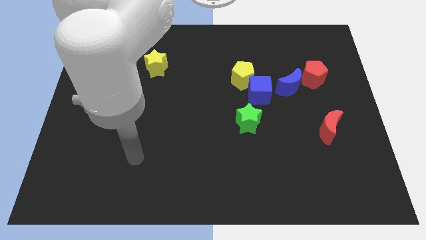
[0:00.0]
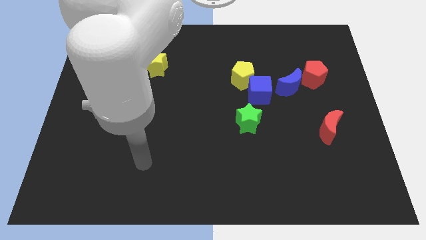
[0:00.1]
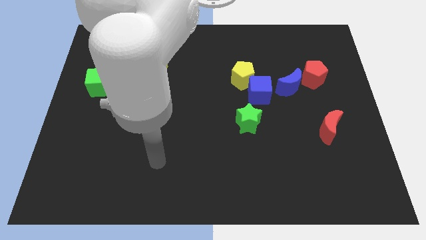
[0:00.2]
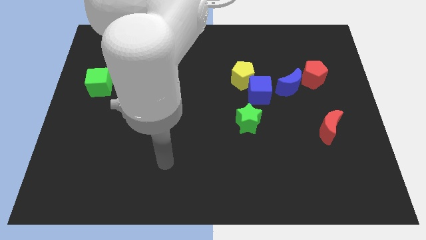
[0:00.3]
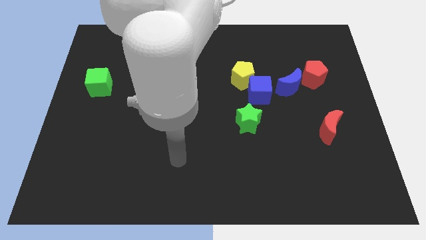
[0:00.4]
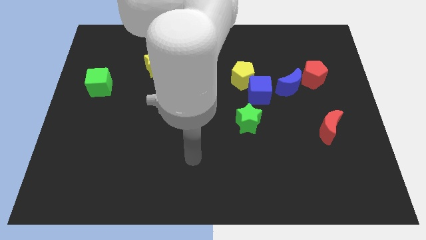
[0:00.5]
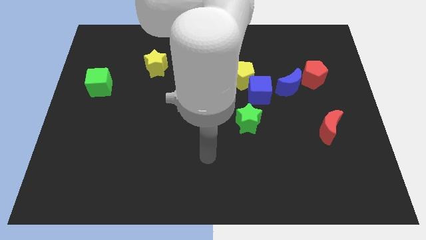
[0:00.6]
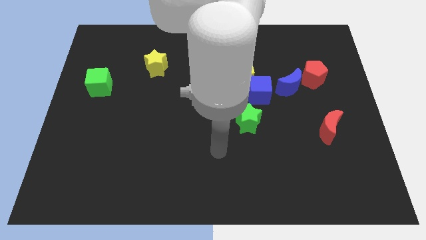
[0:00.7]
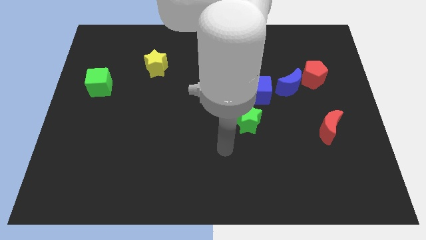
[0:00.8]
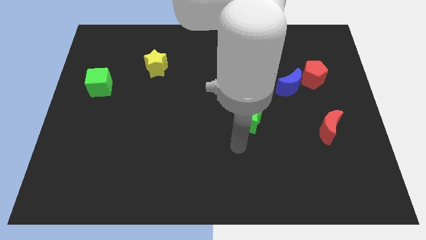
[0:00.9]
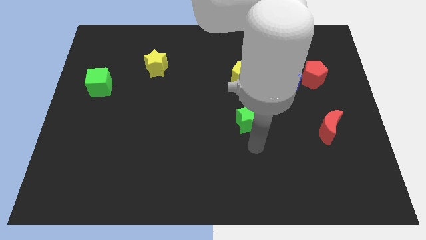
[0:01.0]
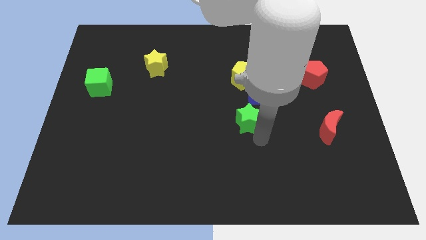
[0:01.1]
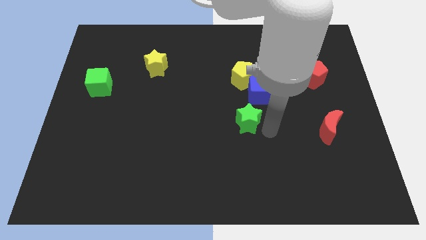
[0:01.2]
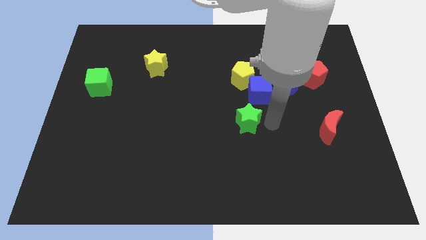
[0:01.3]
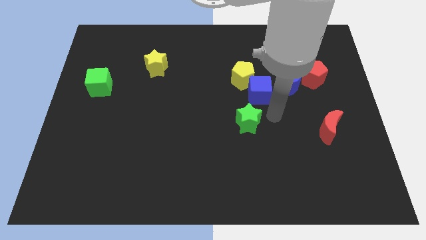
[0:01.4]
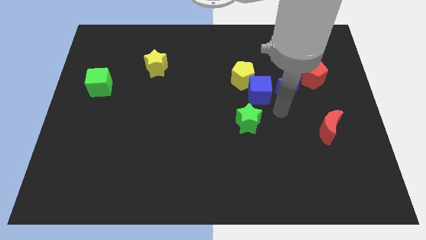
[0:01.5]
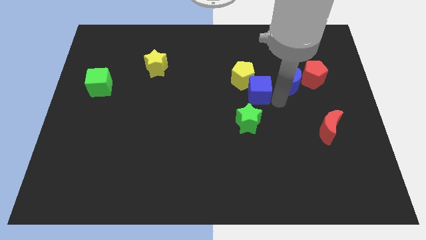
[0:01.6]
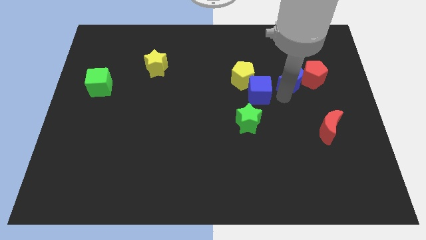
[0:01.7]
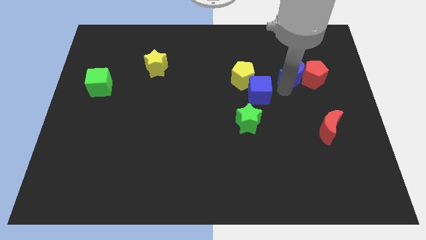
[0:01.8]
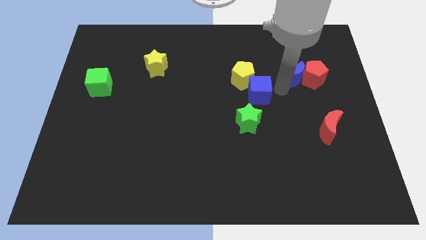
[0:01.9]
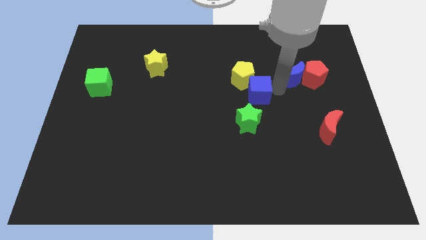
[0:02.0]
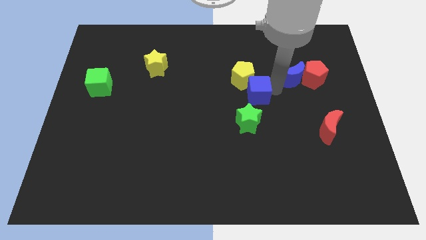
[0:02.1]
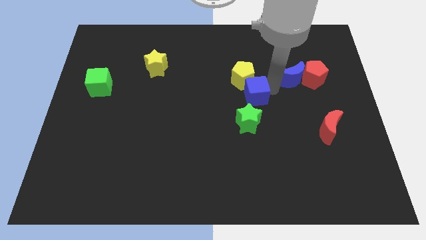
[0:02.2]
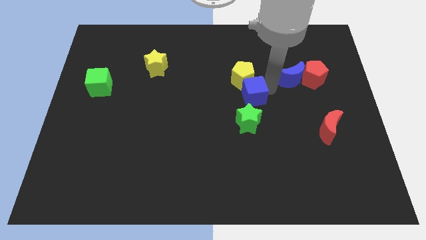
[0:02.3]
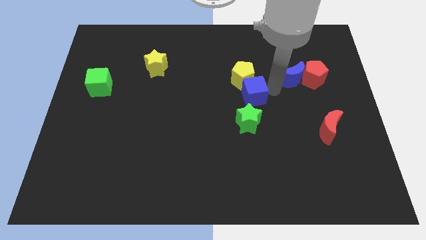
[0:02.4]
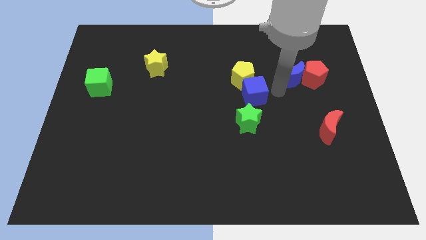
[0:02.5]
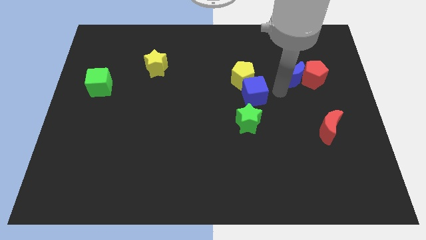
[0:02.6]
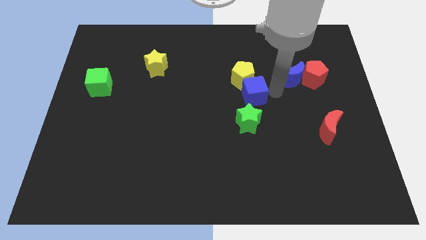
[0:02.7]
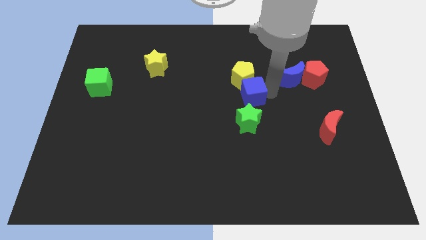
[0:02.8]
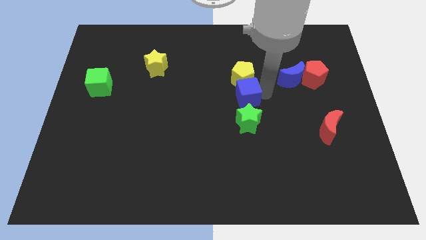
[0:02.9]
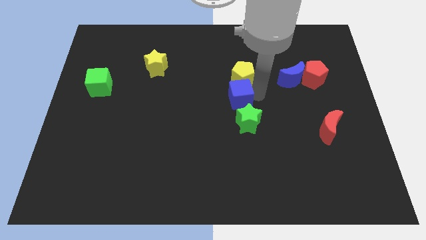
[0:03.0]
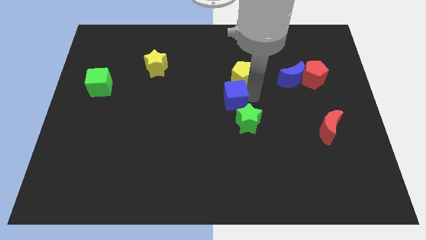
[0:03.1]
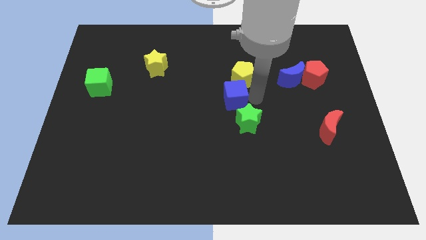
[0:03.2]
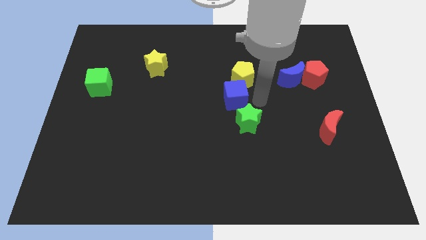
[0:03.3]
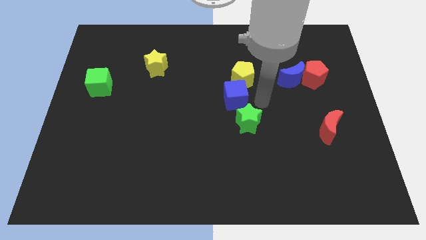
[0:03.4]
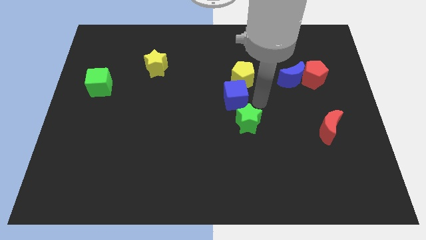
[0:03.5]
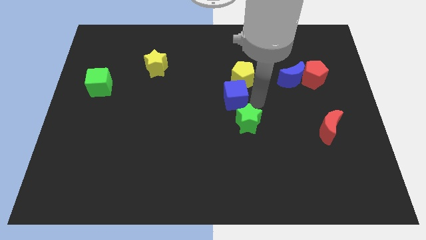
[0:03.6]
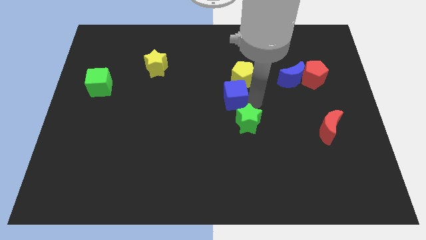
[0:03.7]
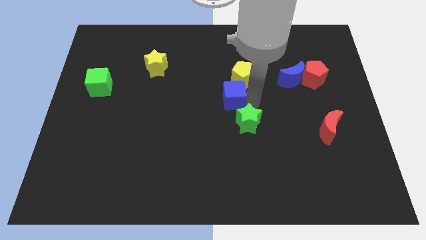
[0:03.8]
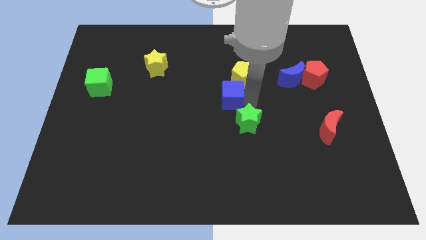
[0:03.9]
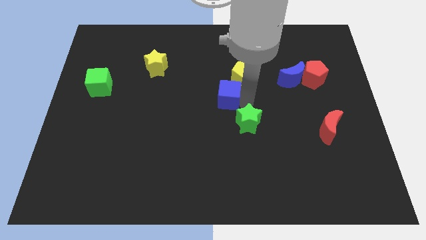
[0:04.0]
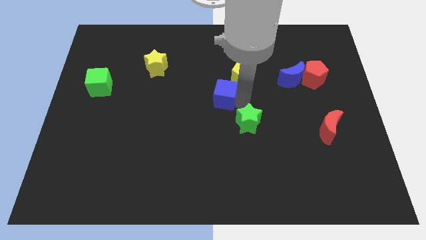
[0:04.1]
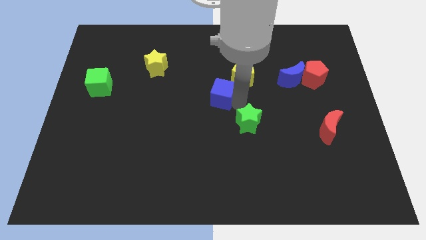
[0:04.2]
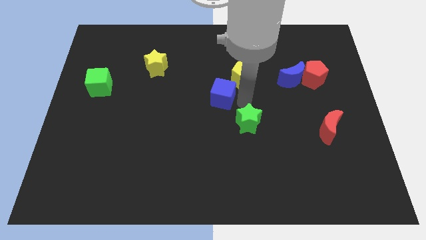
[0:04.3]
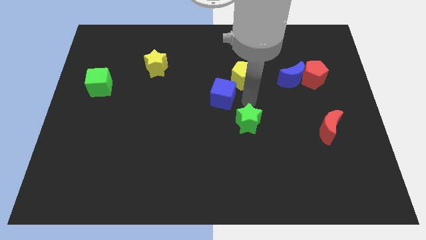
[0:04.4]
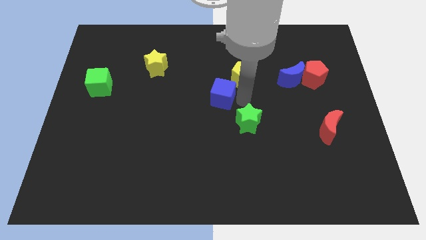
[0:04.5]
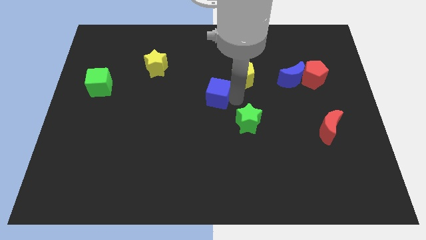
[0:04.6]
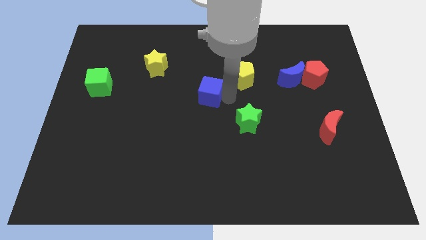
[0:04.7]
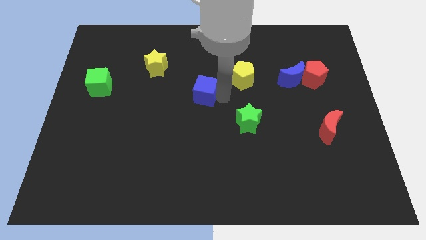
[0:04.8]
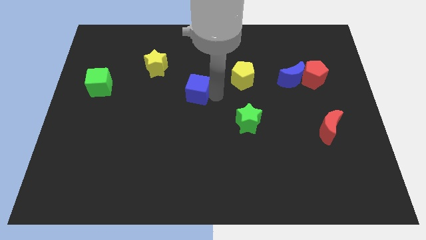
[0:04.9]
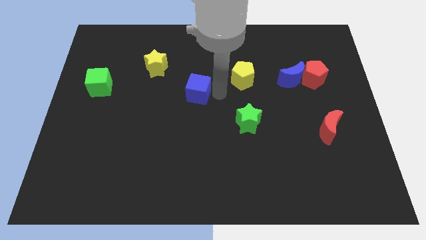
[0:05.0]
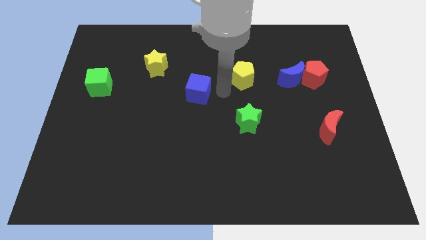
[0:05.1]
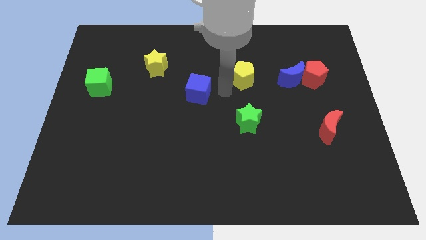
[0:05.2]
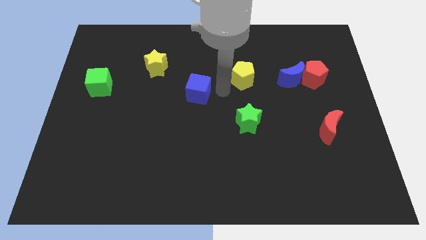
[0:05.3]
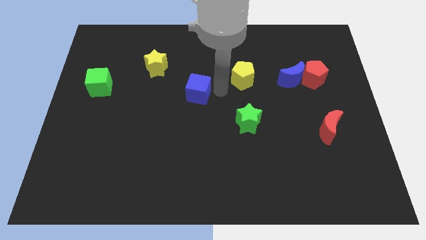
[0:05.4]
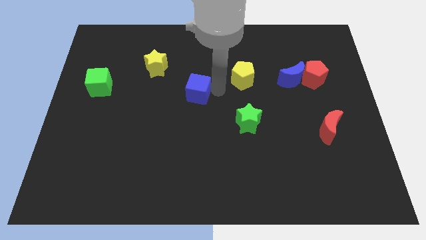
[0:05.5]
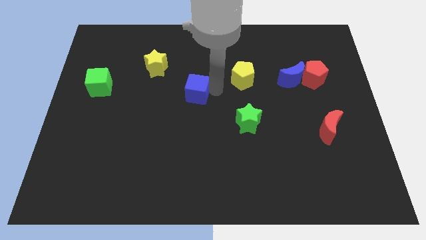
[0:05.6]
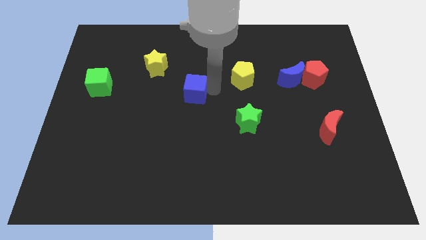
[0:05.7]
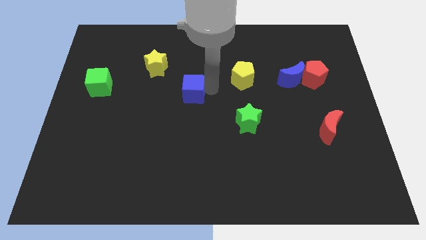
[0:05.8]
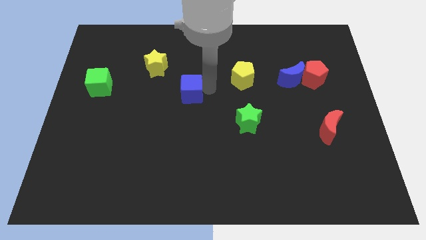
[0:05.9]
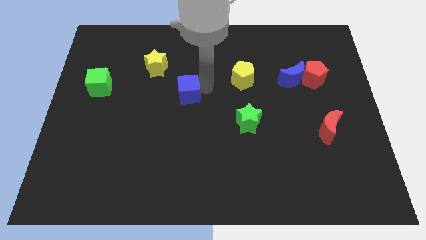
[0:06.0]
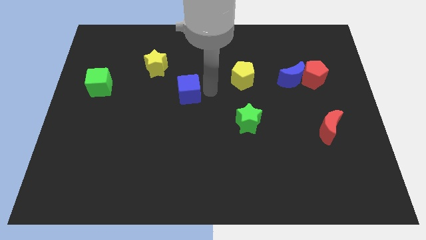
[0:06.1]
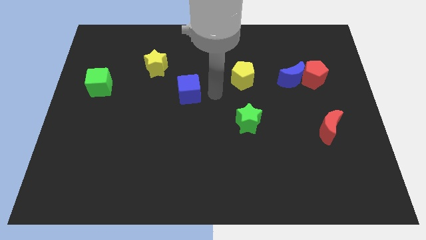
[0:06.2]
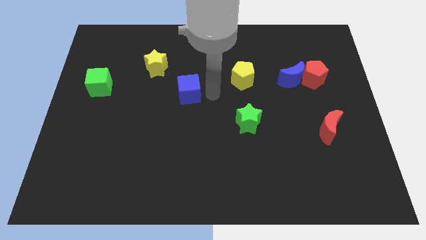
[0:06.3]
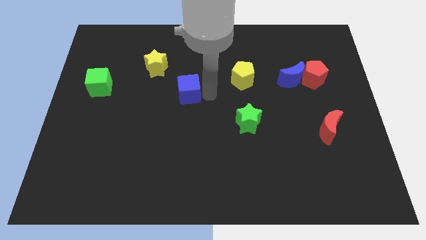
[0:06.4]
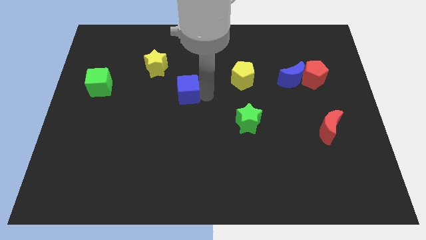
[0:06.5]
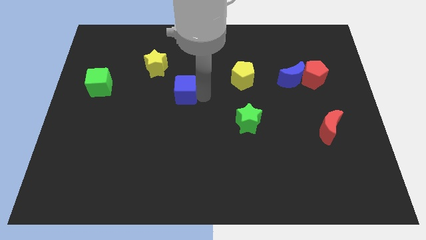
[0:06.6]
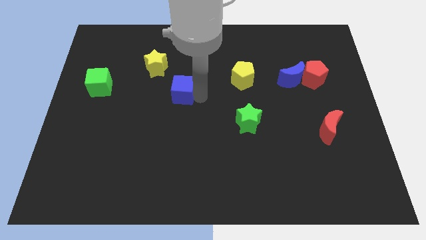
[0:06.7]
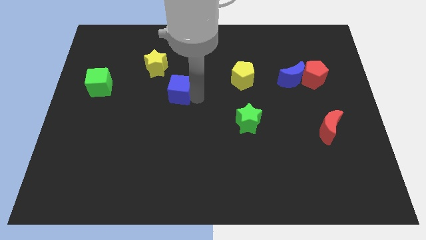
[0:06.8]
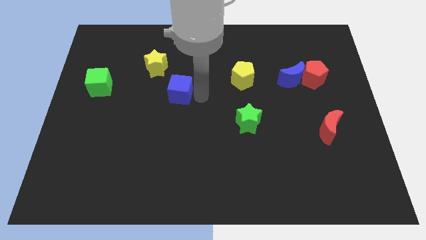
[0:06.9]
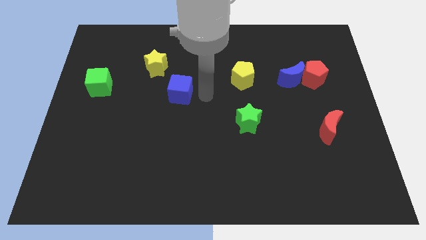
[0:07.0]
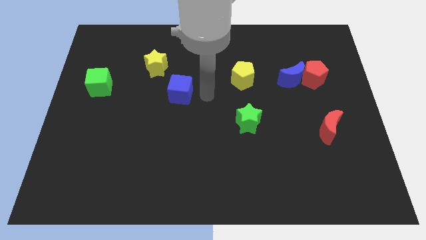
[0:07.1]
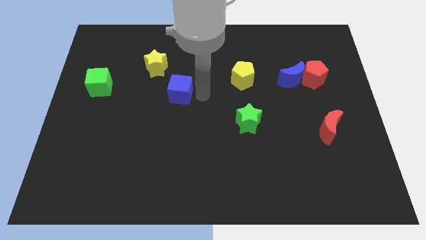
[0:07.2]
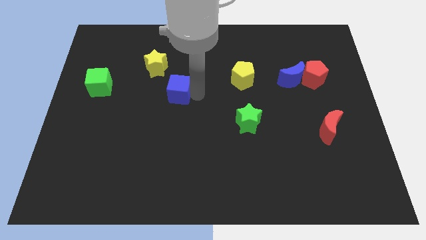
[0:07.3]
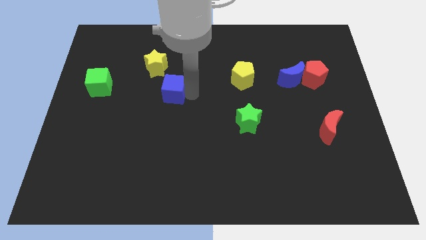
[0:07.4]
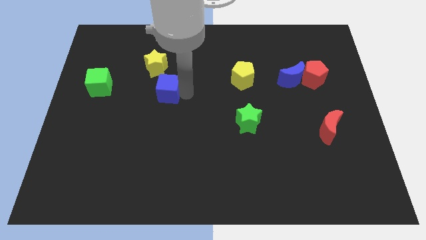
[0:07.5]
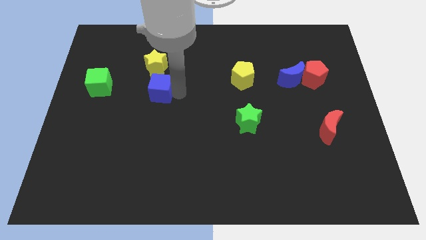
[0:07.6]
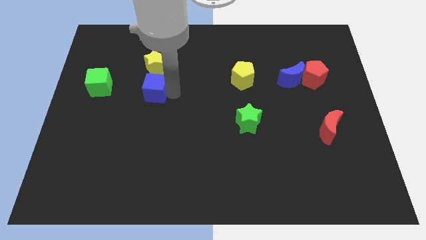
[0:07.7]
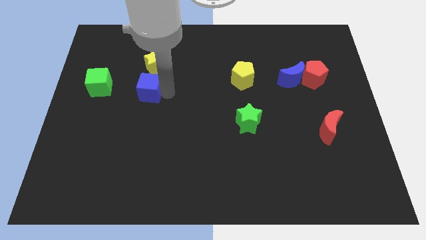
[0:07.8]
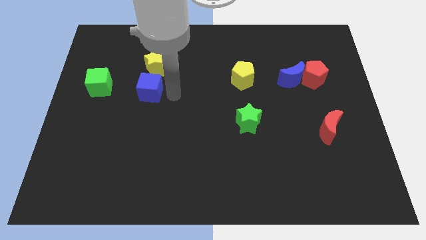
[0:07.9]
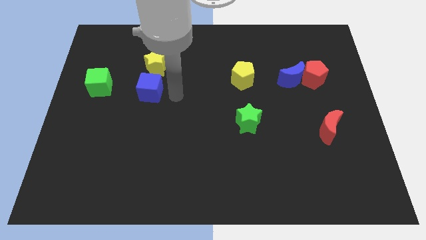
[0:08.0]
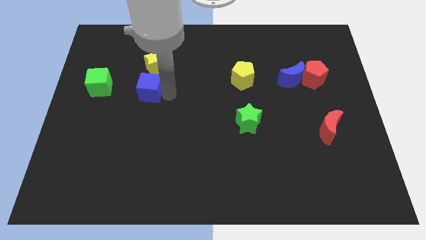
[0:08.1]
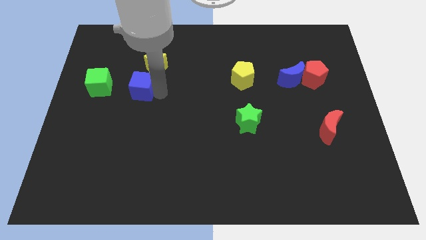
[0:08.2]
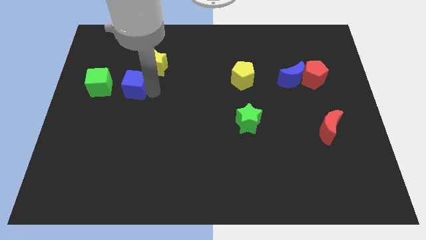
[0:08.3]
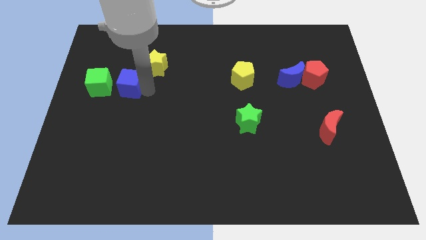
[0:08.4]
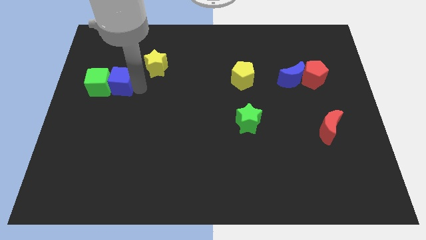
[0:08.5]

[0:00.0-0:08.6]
slide the blue cube to the green cube
